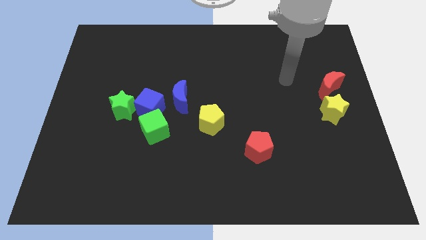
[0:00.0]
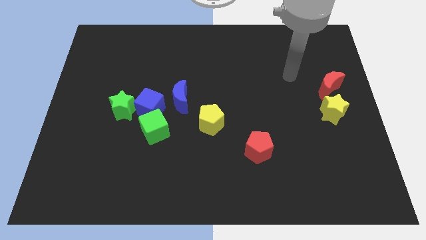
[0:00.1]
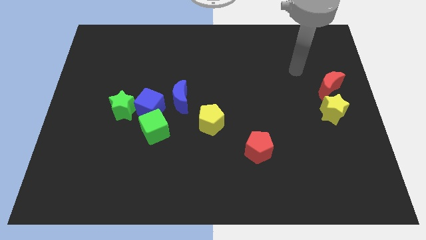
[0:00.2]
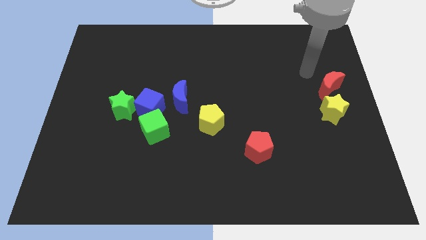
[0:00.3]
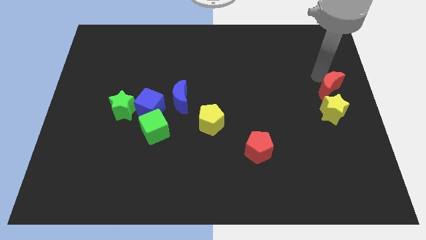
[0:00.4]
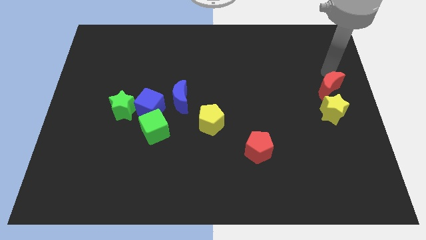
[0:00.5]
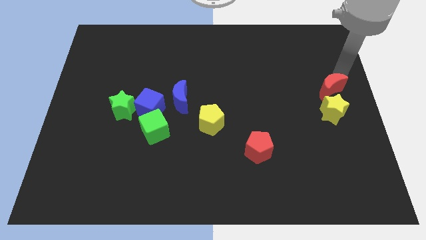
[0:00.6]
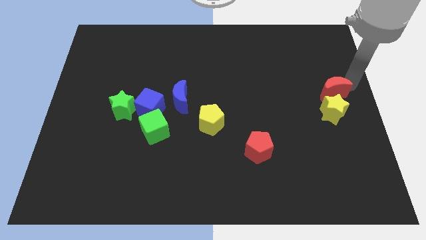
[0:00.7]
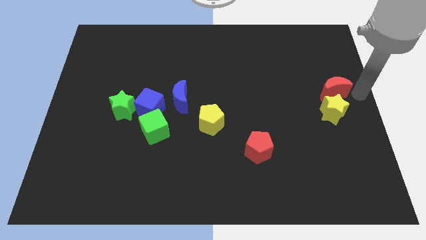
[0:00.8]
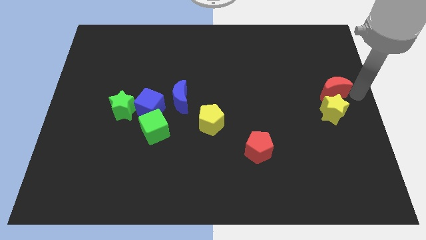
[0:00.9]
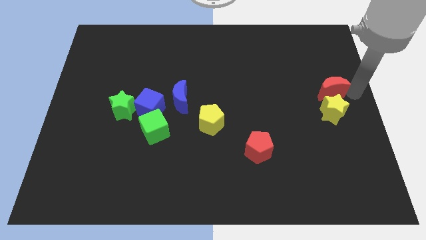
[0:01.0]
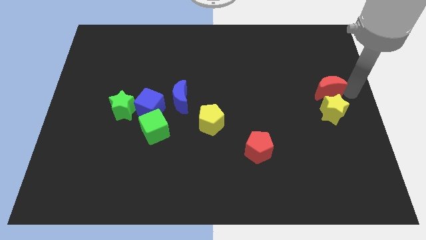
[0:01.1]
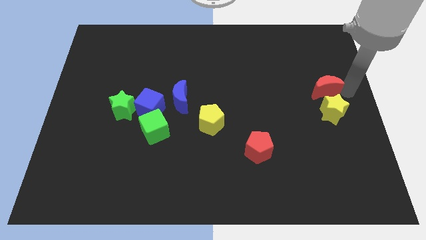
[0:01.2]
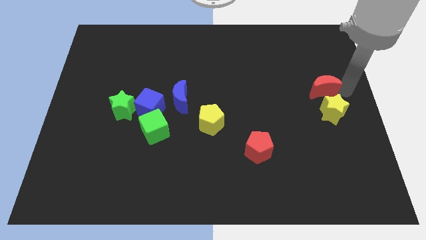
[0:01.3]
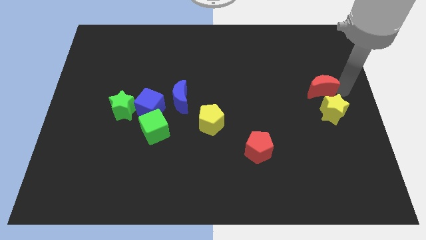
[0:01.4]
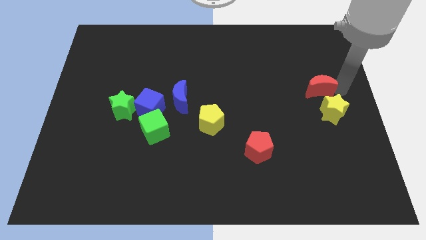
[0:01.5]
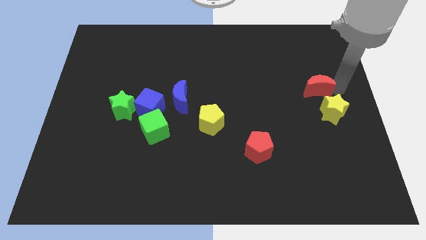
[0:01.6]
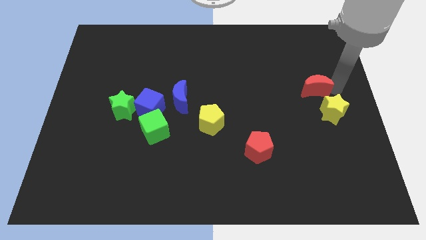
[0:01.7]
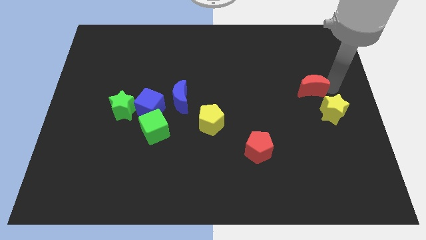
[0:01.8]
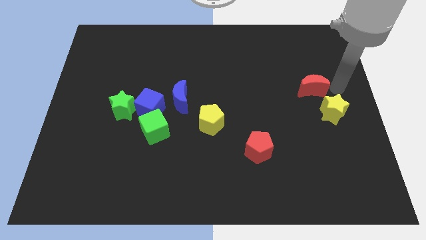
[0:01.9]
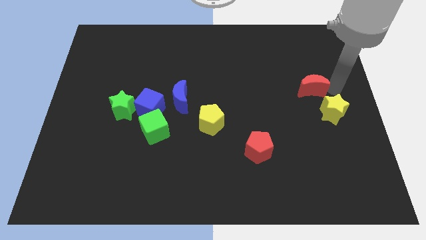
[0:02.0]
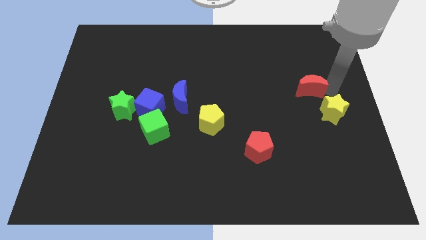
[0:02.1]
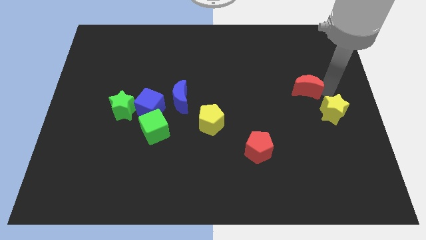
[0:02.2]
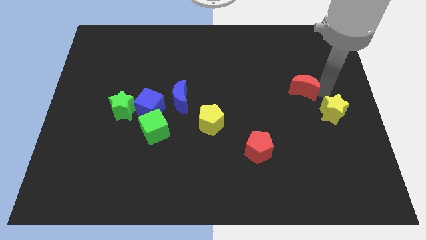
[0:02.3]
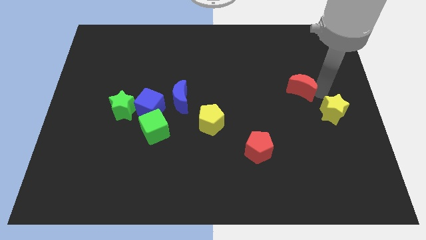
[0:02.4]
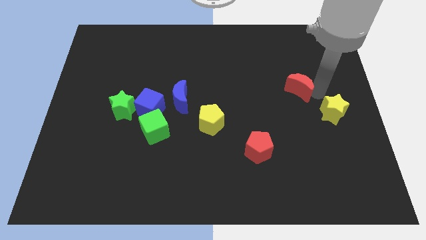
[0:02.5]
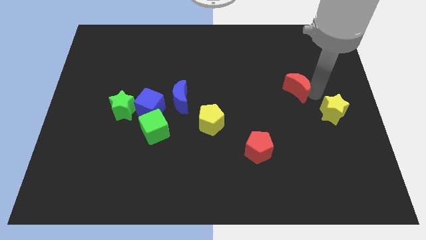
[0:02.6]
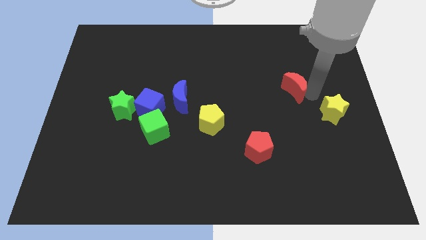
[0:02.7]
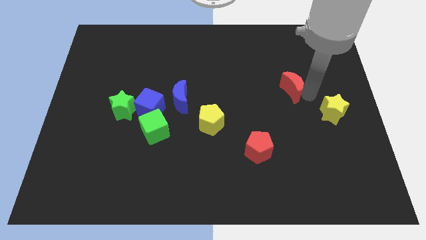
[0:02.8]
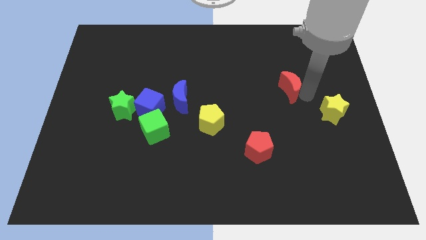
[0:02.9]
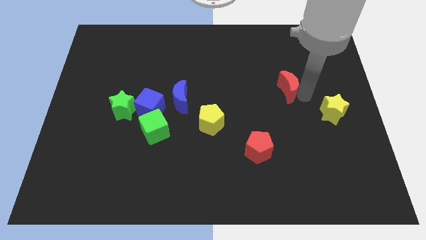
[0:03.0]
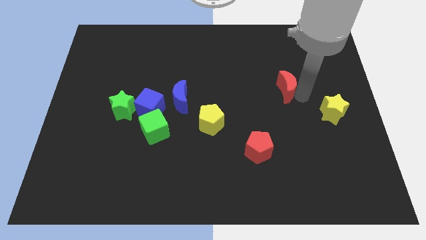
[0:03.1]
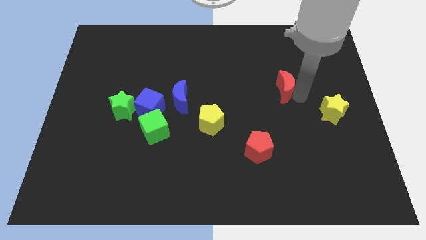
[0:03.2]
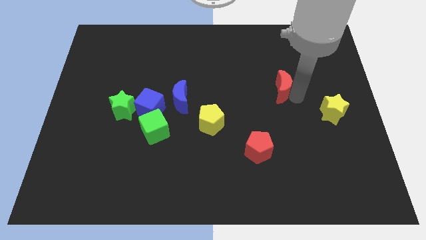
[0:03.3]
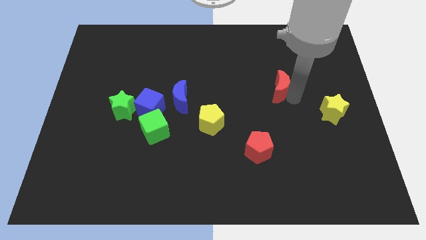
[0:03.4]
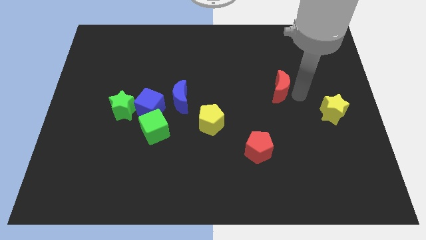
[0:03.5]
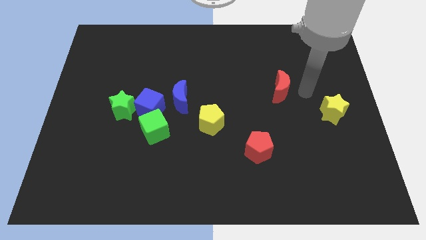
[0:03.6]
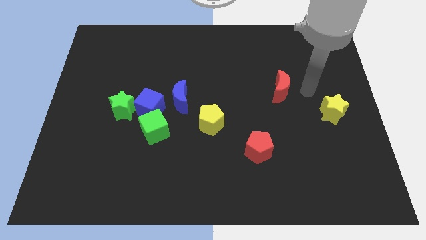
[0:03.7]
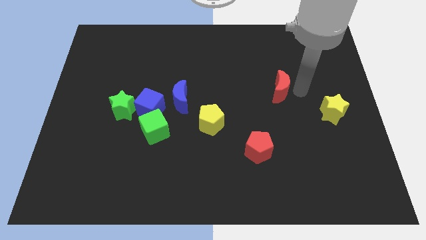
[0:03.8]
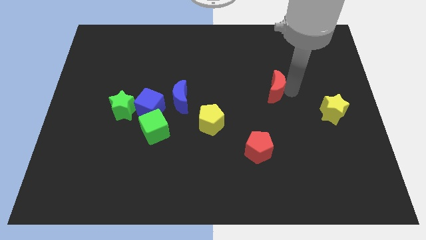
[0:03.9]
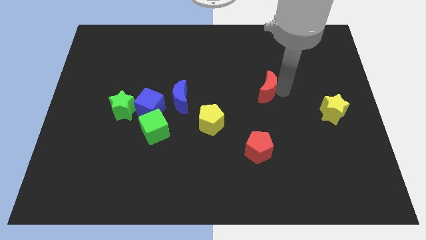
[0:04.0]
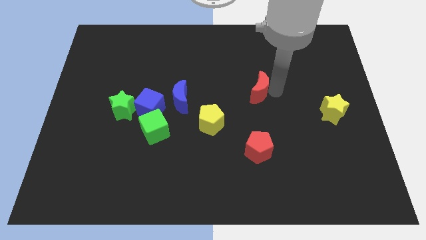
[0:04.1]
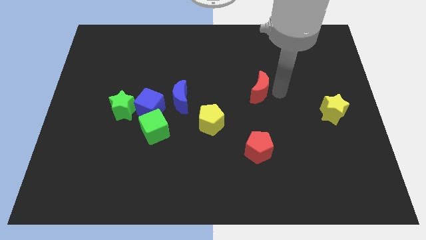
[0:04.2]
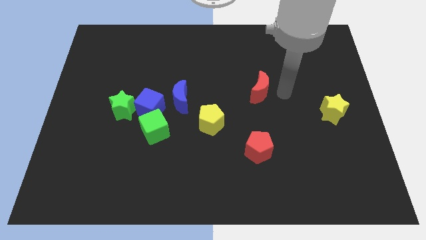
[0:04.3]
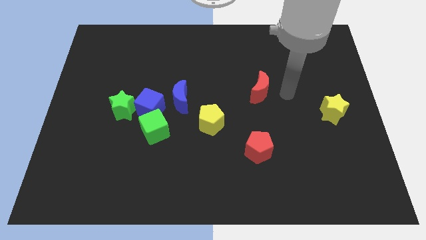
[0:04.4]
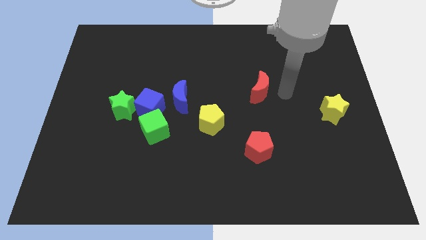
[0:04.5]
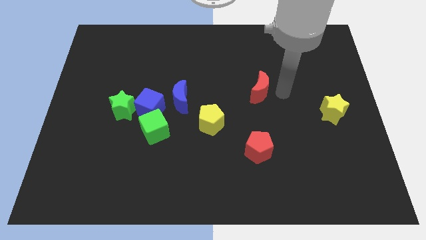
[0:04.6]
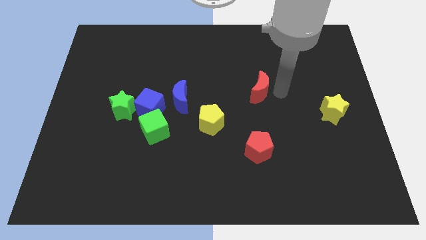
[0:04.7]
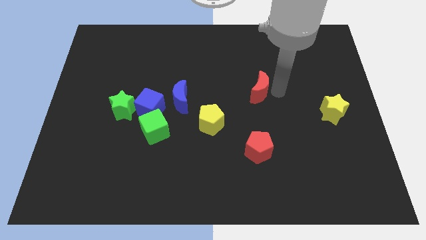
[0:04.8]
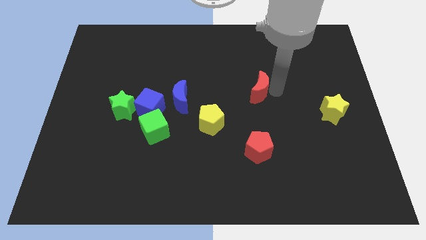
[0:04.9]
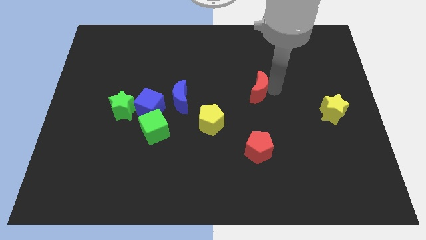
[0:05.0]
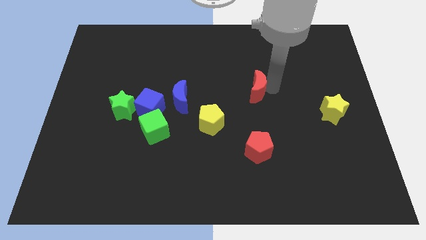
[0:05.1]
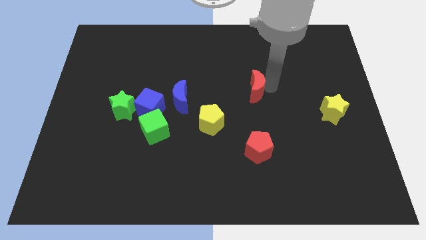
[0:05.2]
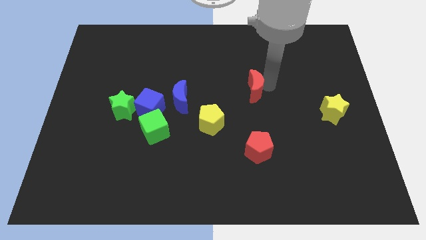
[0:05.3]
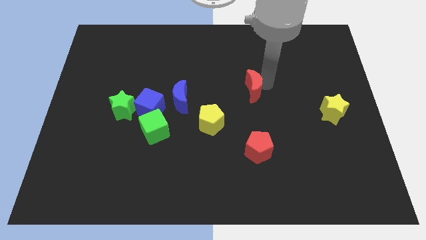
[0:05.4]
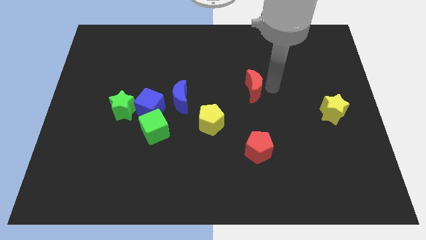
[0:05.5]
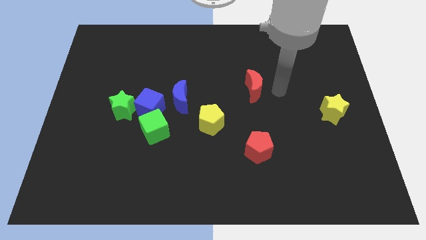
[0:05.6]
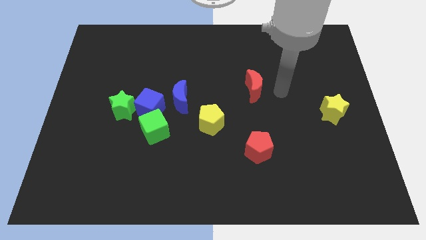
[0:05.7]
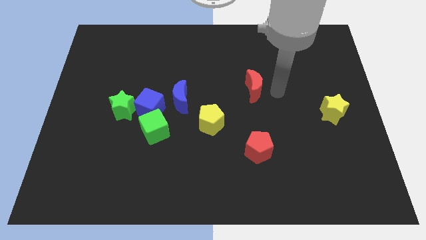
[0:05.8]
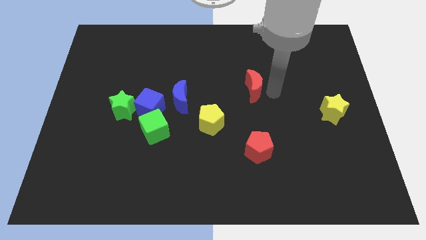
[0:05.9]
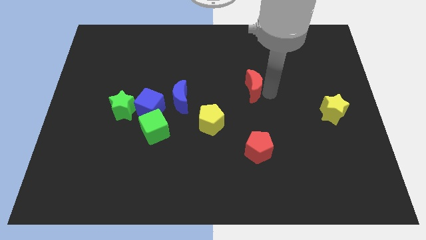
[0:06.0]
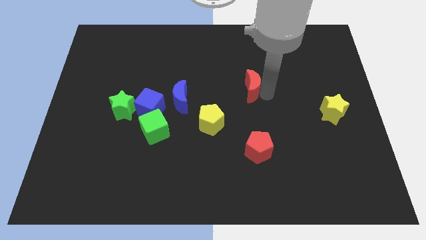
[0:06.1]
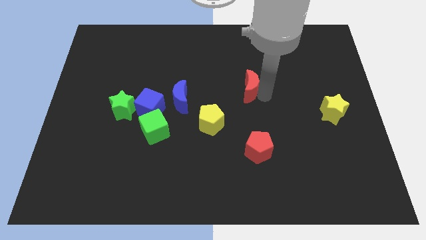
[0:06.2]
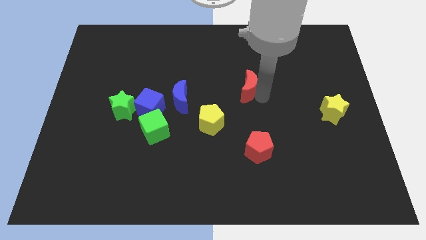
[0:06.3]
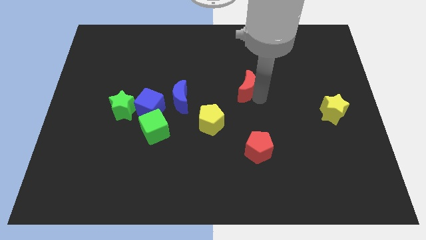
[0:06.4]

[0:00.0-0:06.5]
push the red moon left

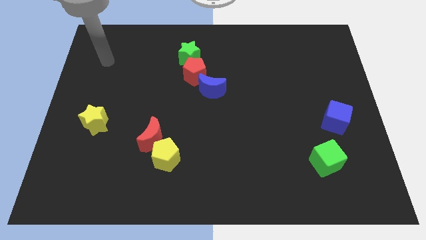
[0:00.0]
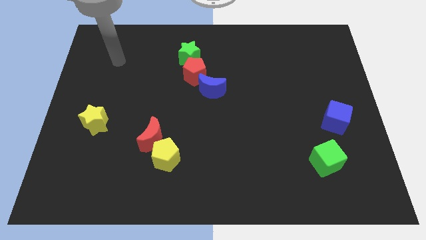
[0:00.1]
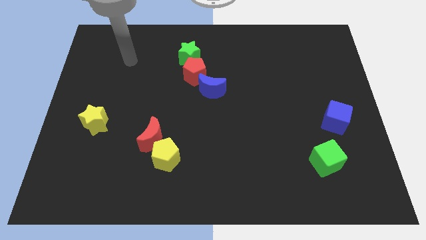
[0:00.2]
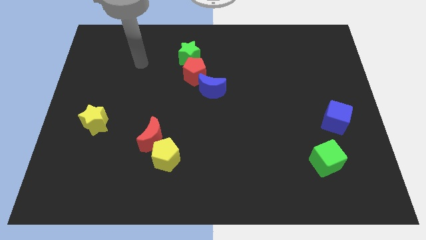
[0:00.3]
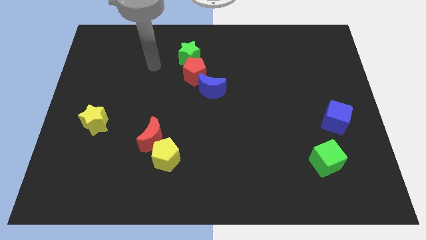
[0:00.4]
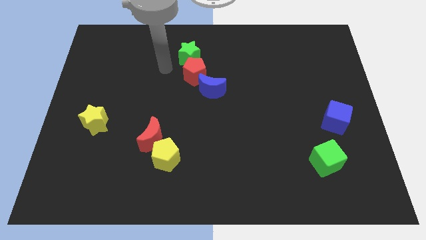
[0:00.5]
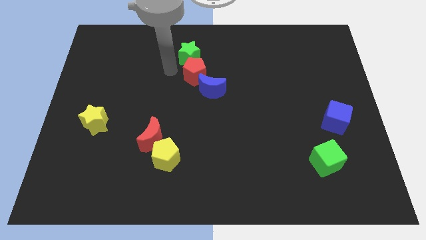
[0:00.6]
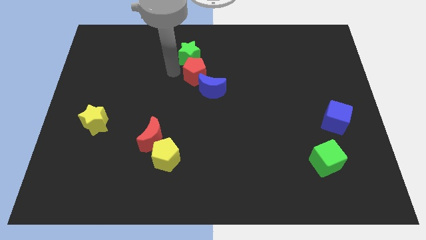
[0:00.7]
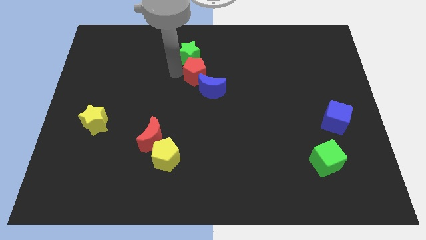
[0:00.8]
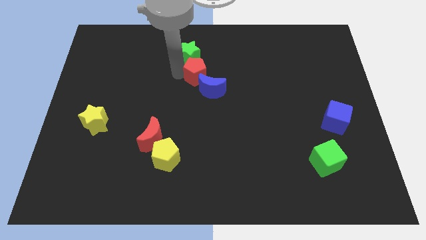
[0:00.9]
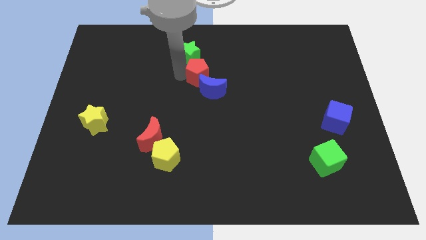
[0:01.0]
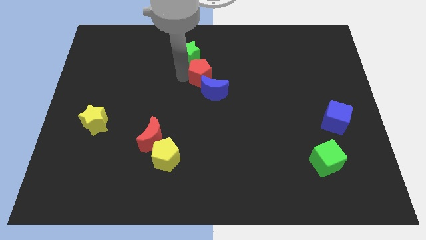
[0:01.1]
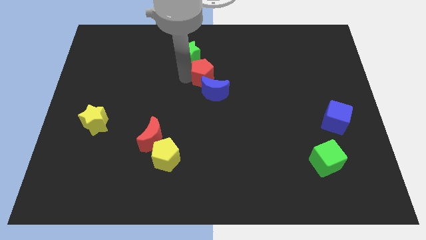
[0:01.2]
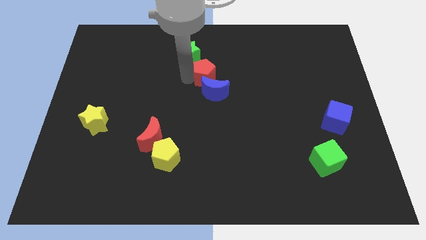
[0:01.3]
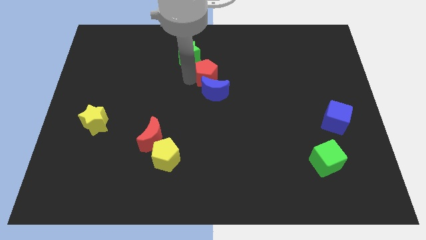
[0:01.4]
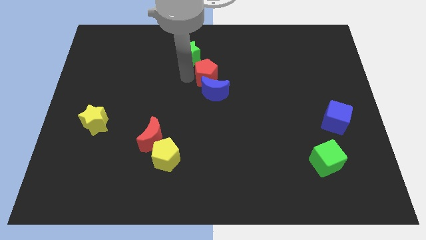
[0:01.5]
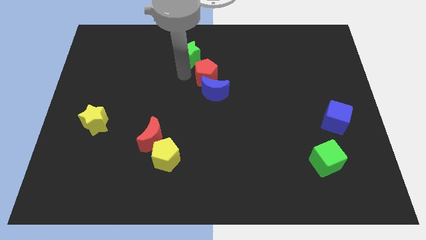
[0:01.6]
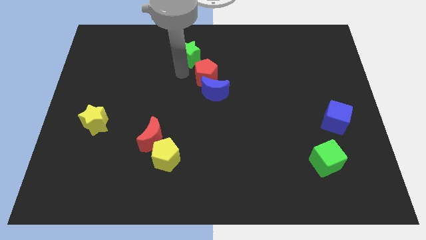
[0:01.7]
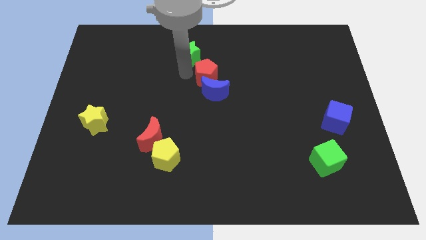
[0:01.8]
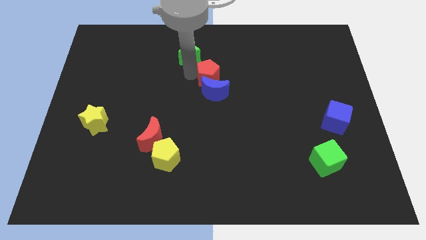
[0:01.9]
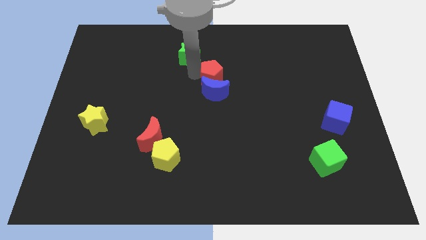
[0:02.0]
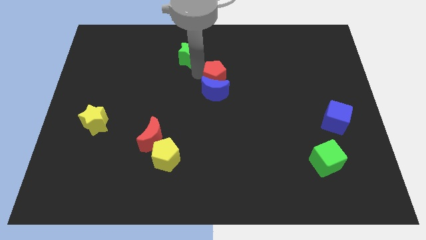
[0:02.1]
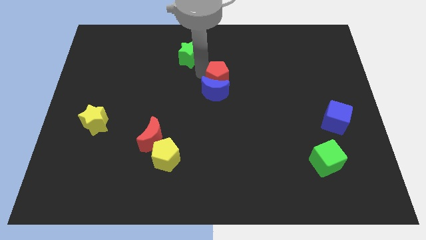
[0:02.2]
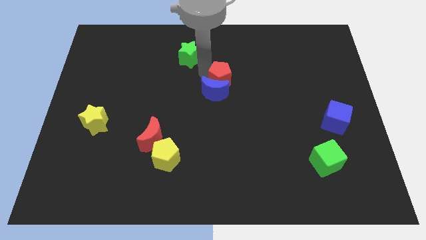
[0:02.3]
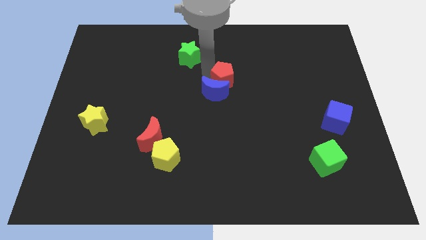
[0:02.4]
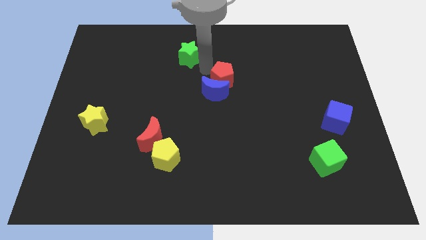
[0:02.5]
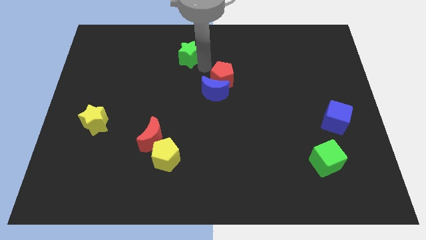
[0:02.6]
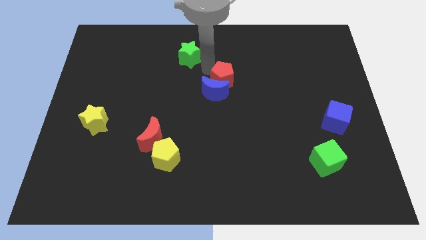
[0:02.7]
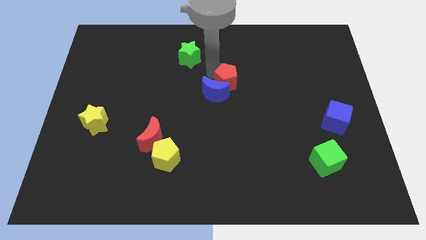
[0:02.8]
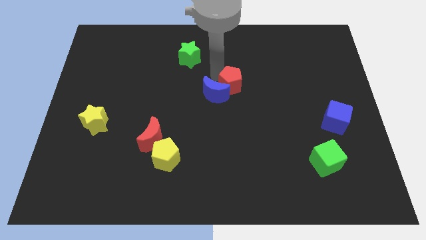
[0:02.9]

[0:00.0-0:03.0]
move the red pentagon downwards and then to the right a little bit
